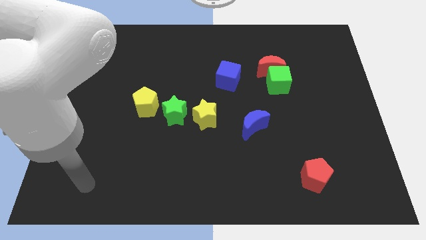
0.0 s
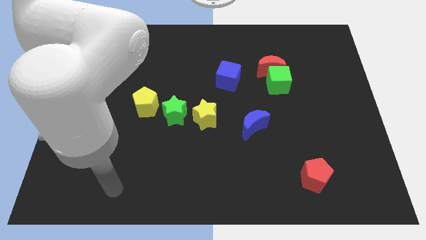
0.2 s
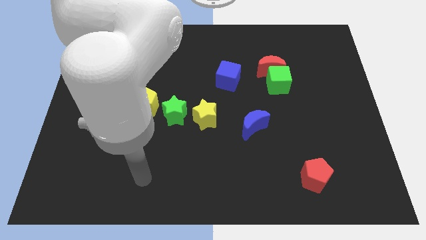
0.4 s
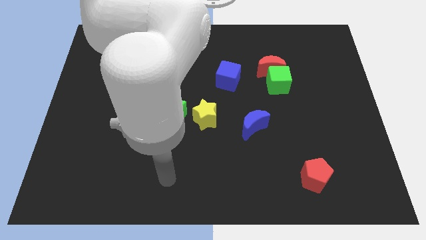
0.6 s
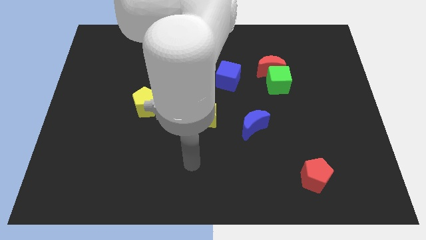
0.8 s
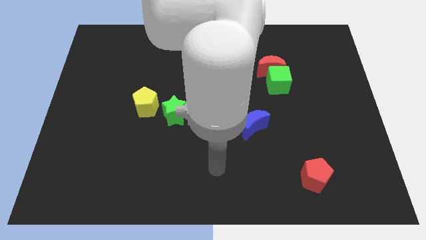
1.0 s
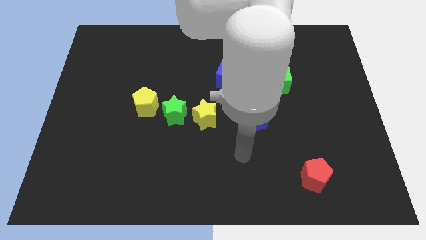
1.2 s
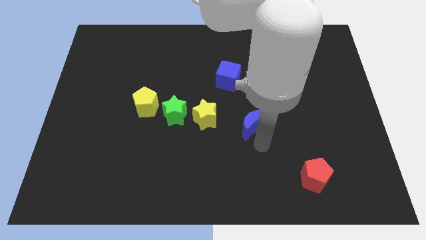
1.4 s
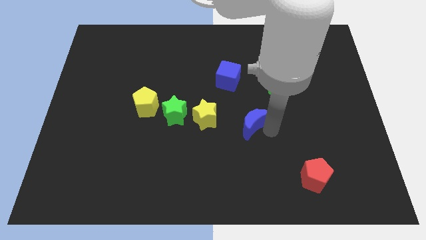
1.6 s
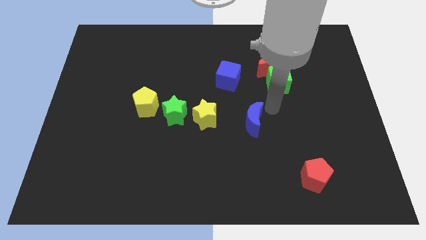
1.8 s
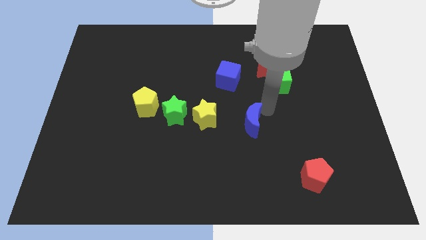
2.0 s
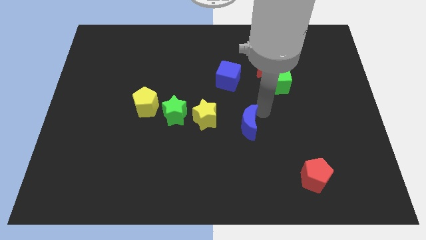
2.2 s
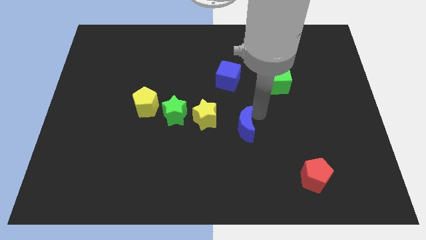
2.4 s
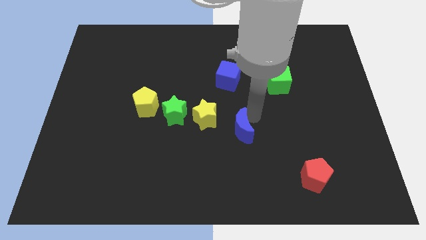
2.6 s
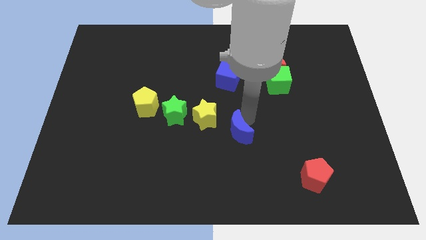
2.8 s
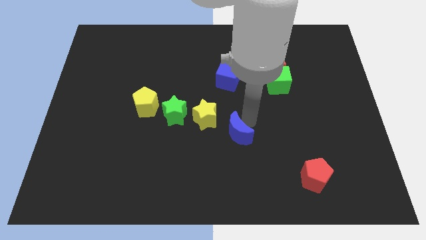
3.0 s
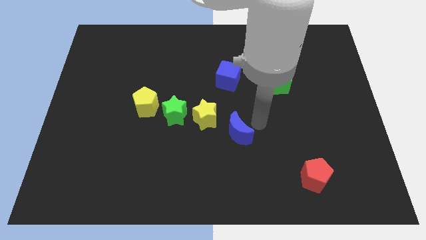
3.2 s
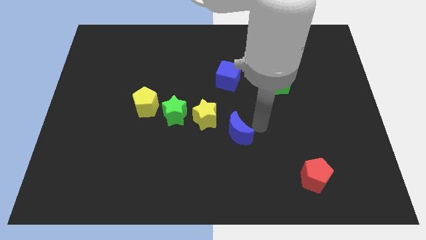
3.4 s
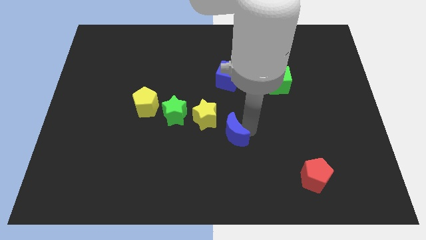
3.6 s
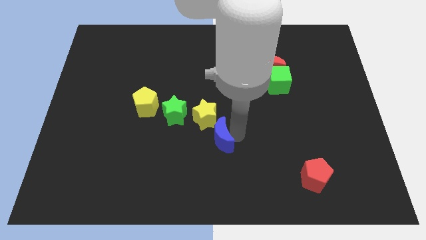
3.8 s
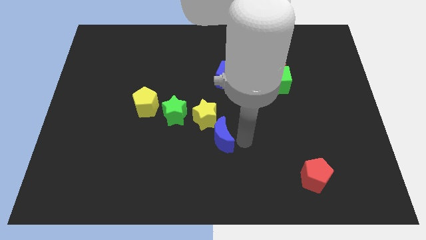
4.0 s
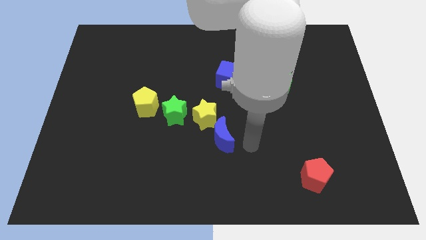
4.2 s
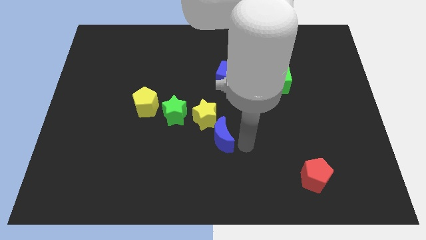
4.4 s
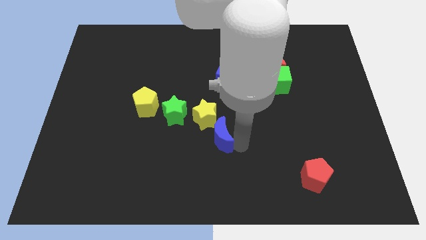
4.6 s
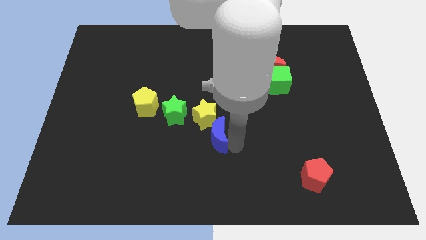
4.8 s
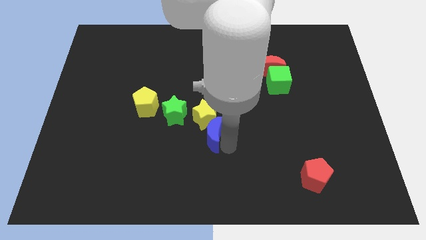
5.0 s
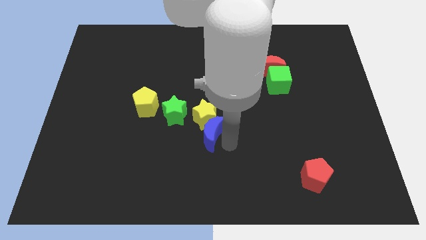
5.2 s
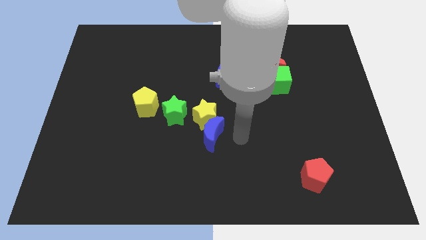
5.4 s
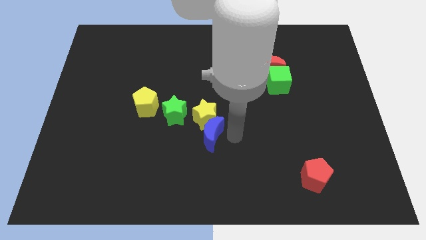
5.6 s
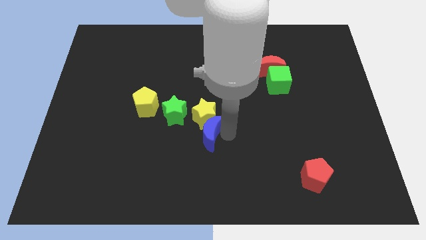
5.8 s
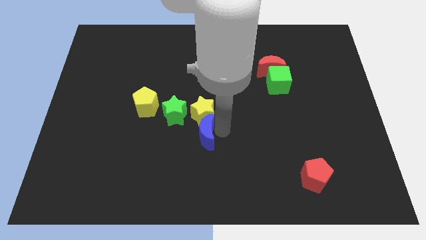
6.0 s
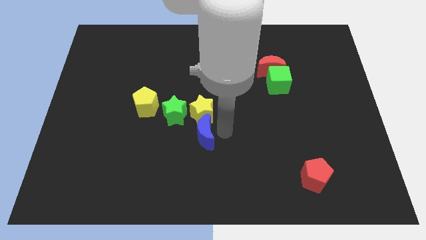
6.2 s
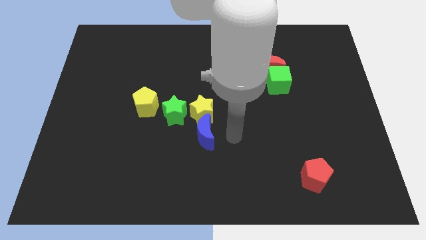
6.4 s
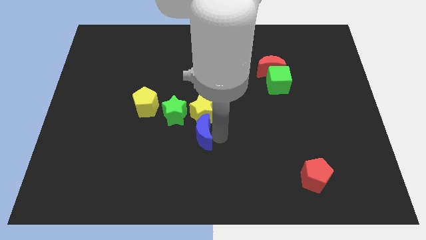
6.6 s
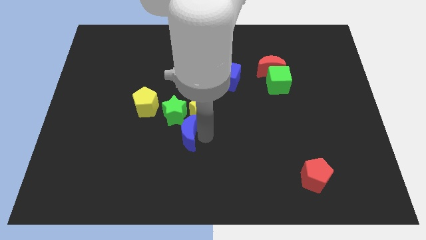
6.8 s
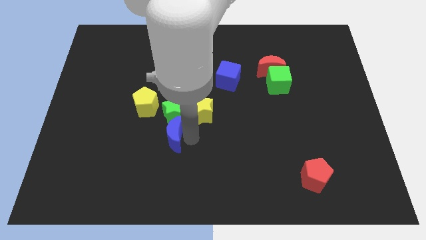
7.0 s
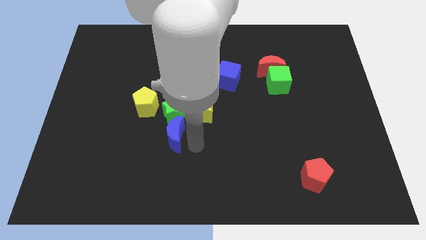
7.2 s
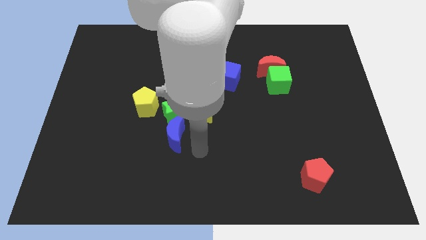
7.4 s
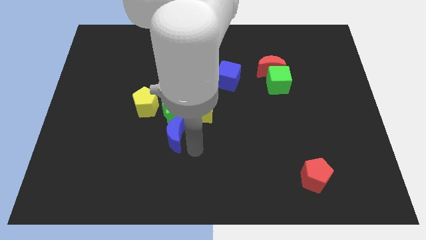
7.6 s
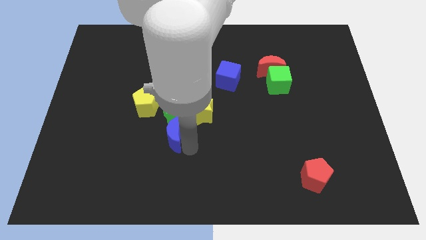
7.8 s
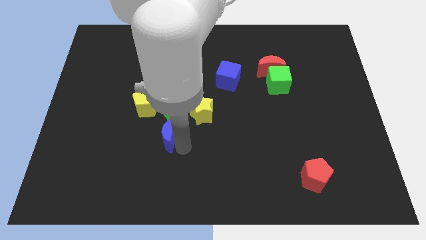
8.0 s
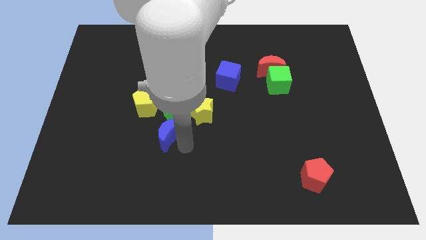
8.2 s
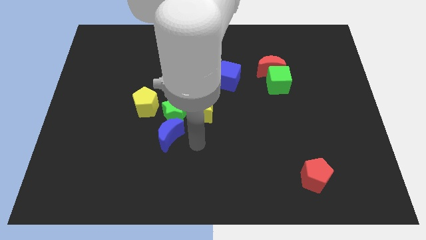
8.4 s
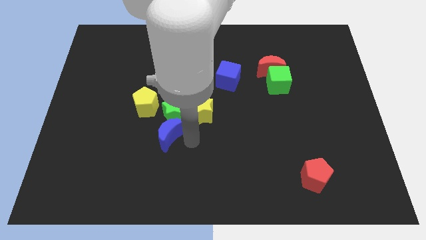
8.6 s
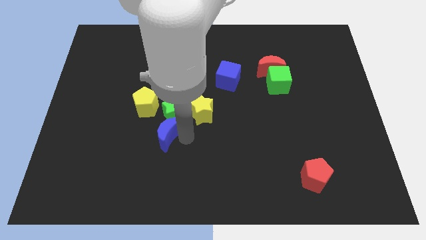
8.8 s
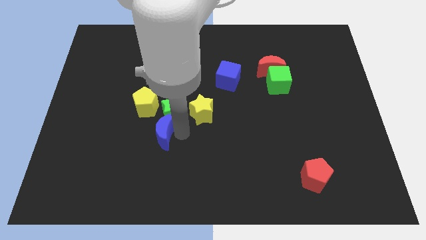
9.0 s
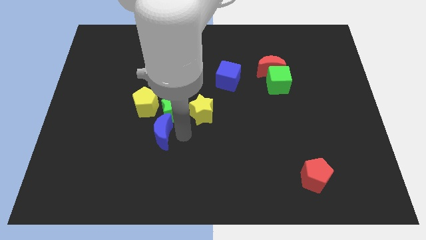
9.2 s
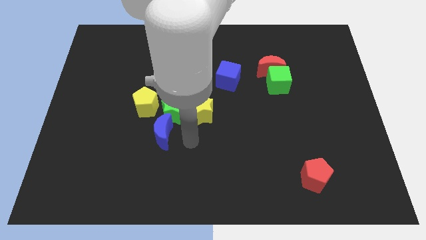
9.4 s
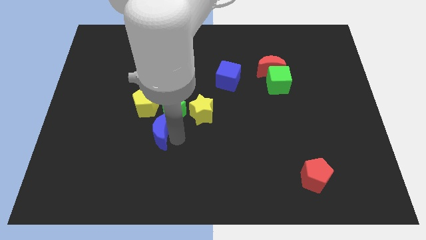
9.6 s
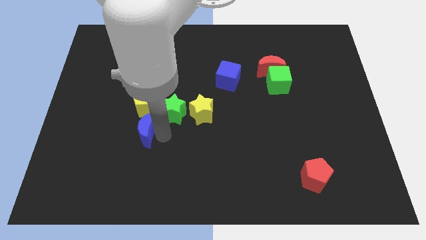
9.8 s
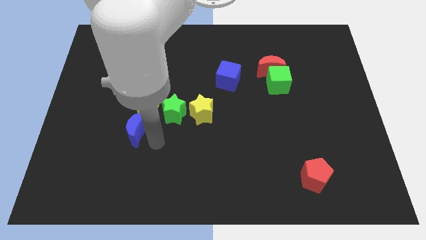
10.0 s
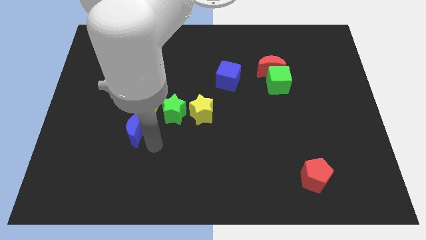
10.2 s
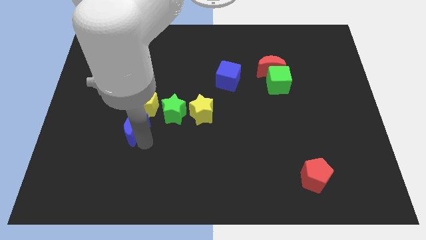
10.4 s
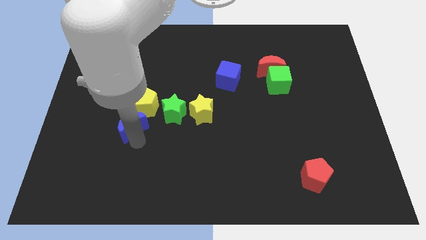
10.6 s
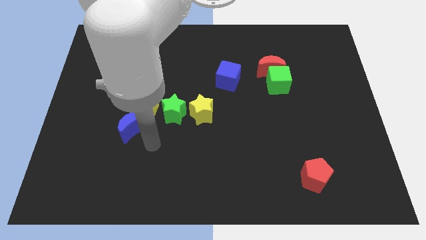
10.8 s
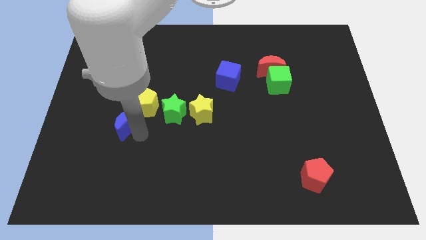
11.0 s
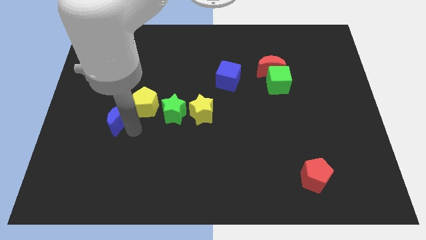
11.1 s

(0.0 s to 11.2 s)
move the blue moon to the left of the yellow pentagon

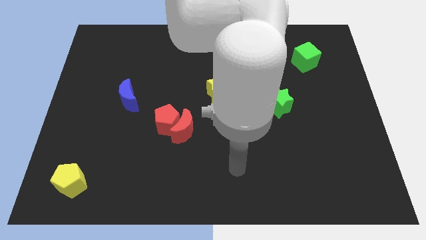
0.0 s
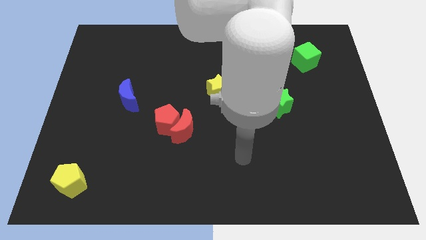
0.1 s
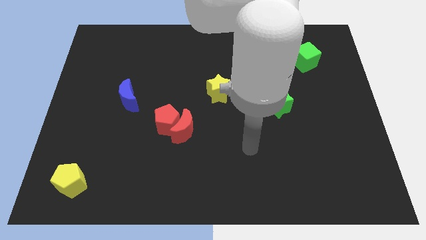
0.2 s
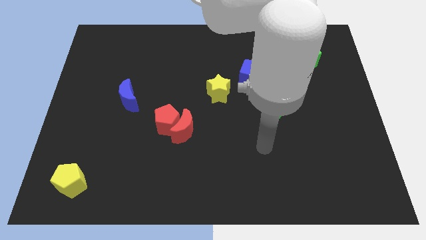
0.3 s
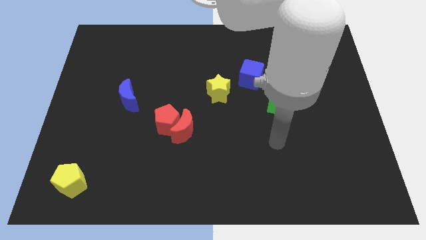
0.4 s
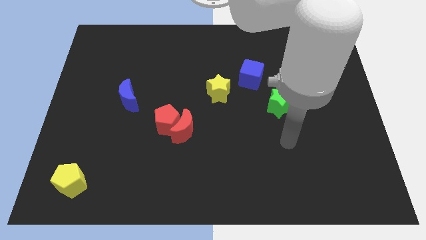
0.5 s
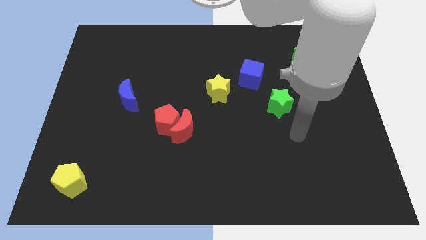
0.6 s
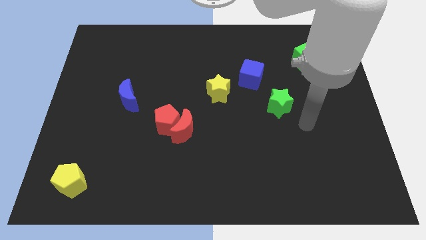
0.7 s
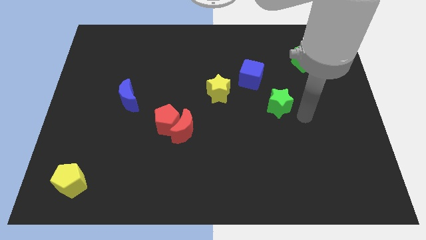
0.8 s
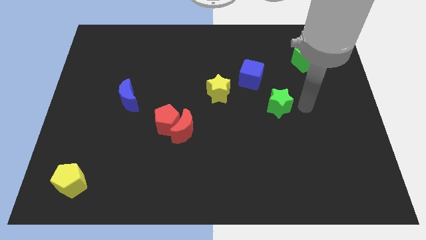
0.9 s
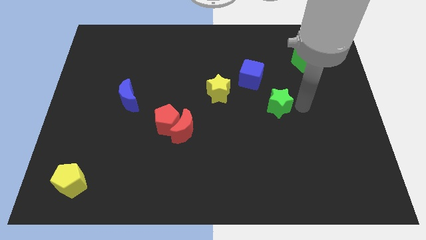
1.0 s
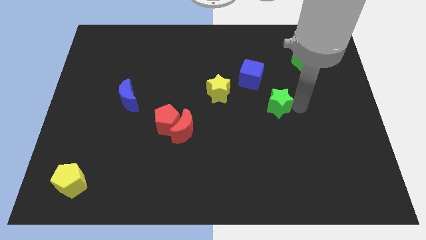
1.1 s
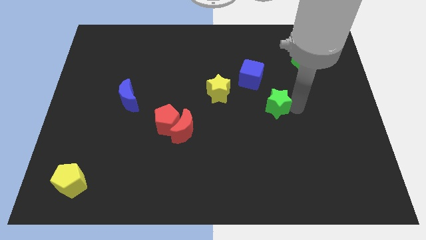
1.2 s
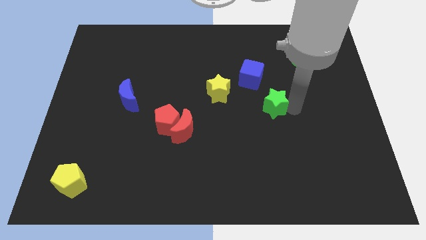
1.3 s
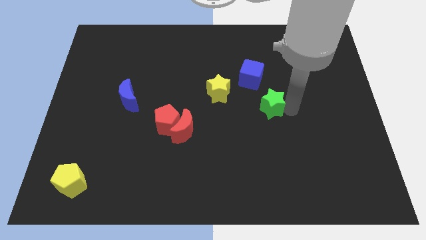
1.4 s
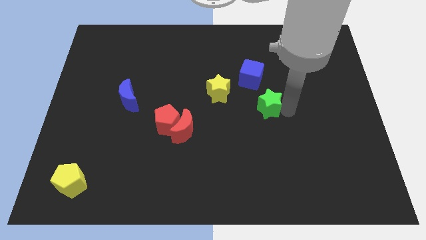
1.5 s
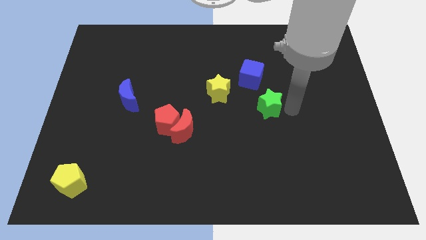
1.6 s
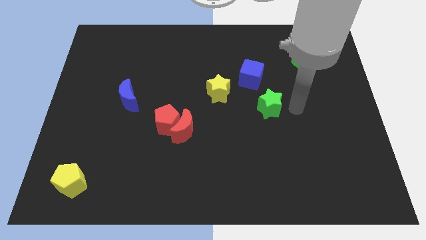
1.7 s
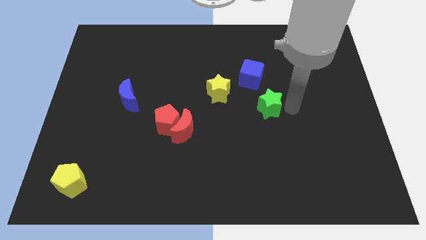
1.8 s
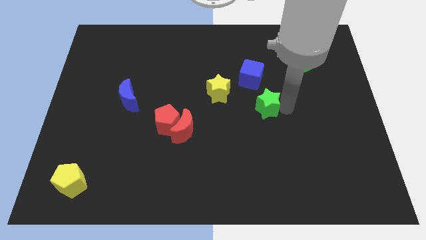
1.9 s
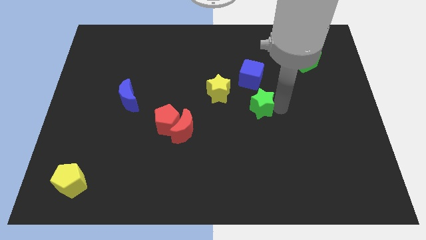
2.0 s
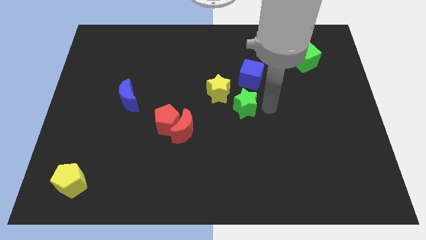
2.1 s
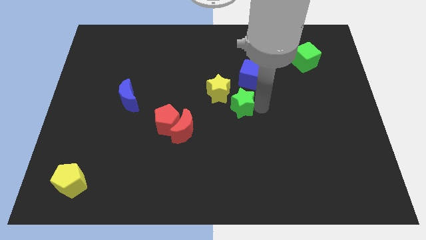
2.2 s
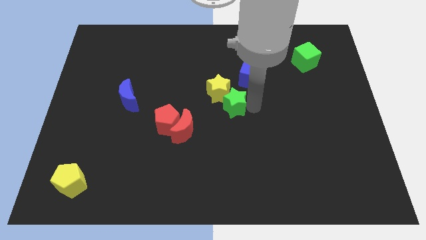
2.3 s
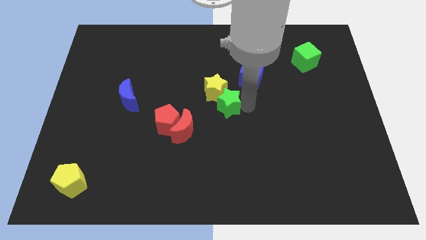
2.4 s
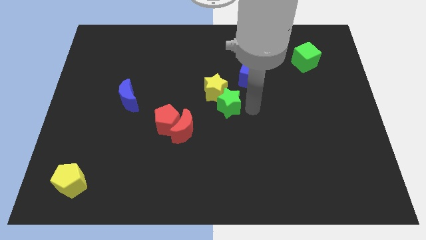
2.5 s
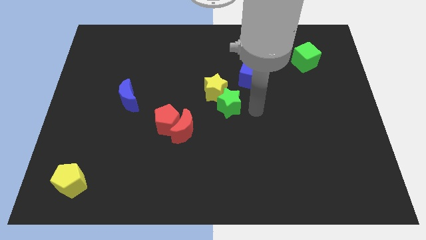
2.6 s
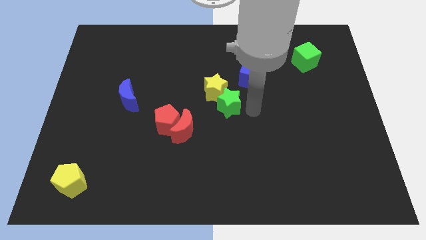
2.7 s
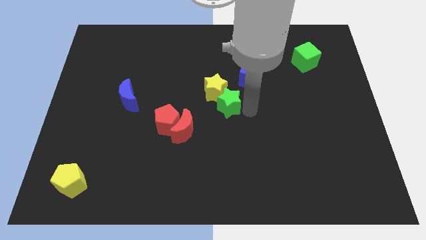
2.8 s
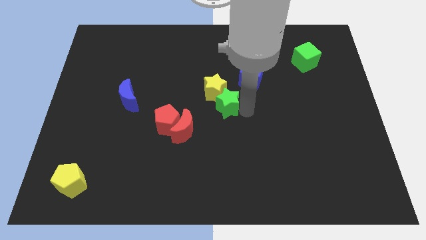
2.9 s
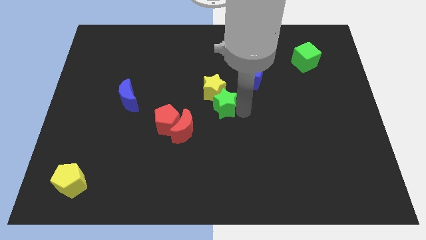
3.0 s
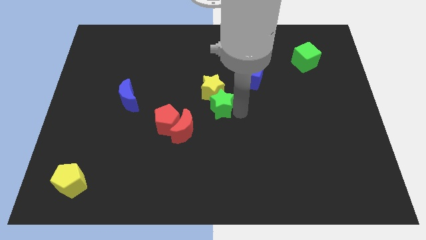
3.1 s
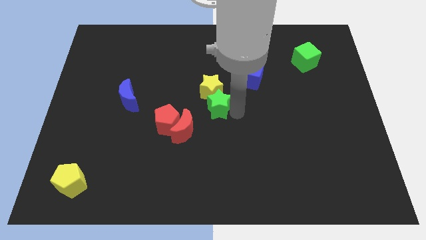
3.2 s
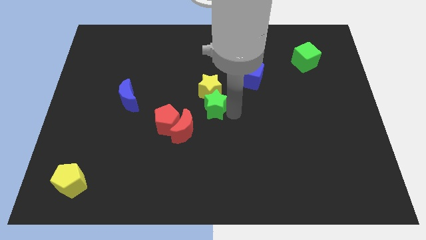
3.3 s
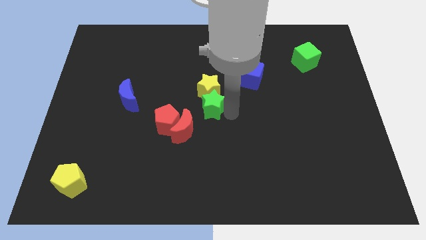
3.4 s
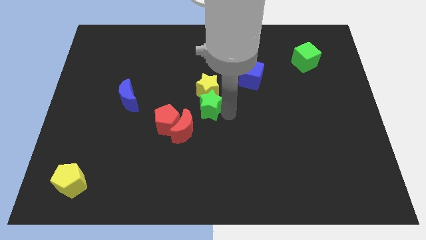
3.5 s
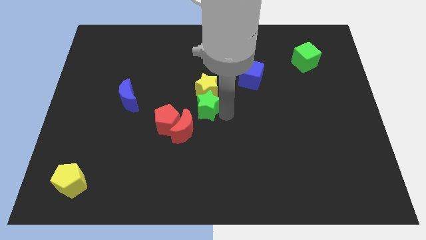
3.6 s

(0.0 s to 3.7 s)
move the green star to the top of the red moon
